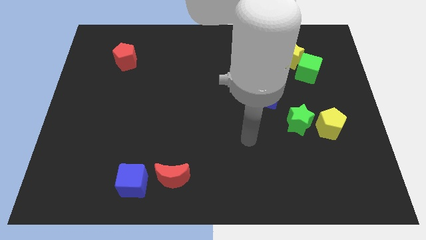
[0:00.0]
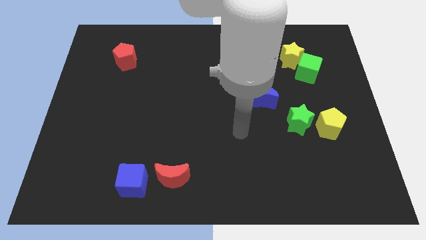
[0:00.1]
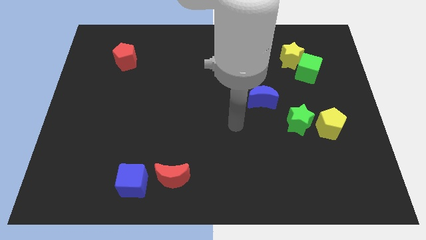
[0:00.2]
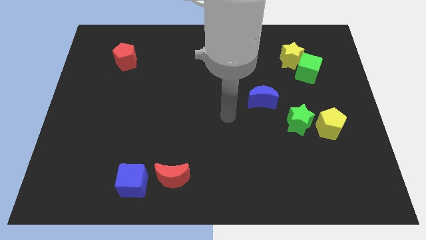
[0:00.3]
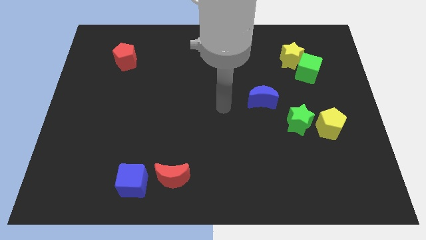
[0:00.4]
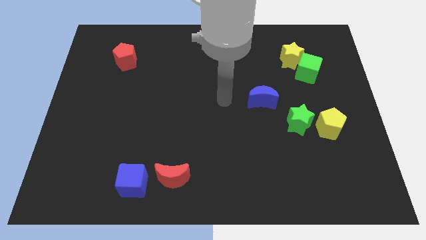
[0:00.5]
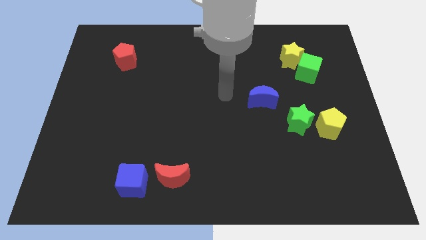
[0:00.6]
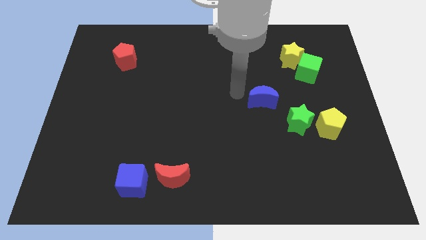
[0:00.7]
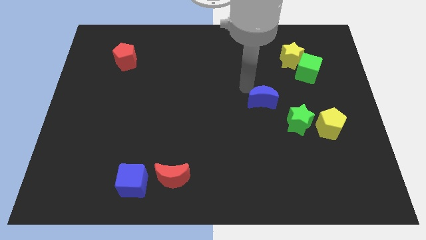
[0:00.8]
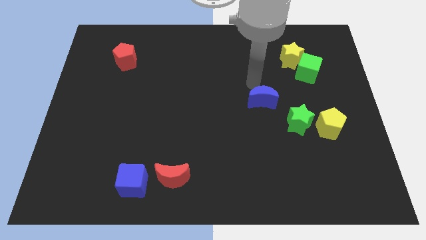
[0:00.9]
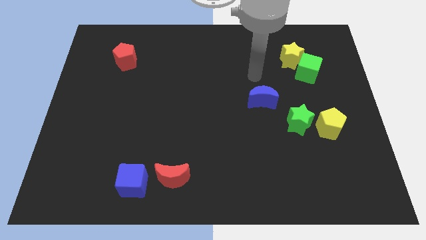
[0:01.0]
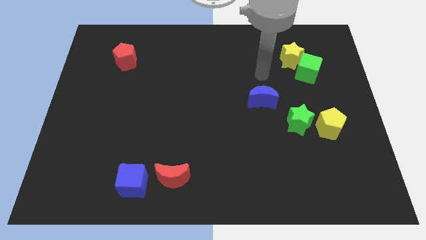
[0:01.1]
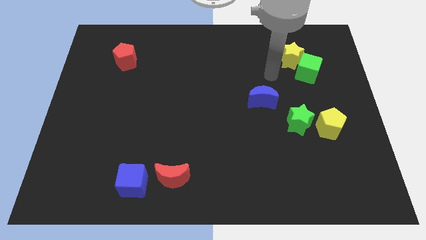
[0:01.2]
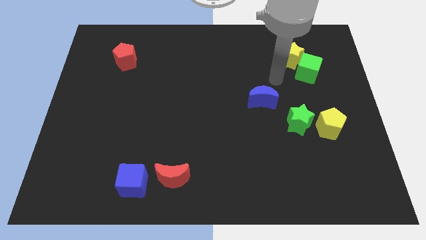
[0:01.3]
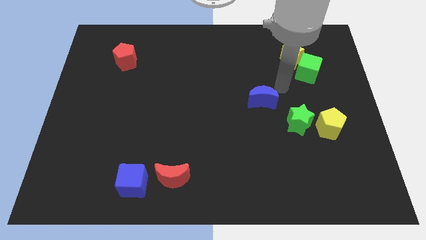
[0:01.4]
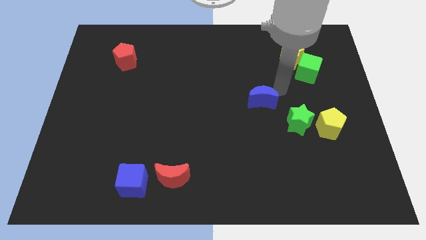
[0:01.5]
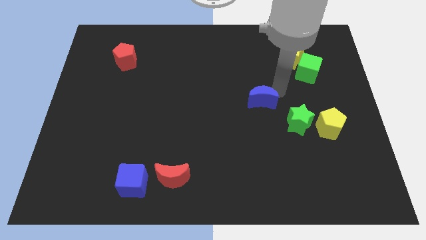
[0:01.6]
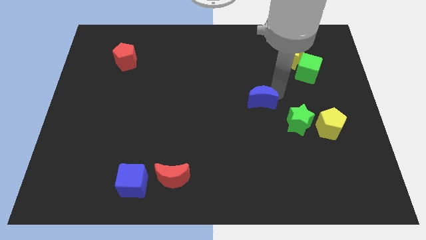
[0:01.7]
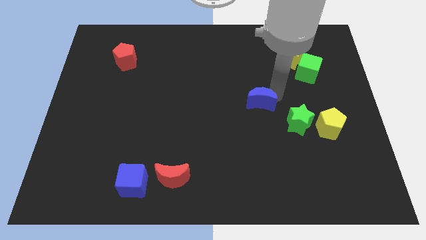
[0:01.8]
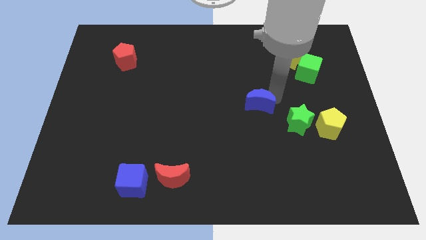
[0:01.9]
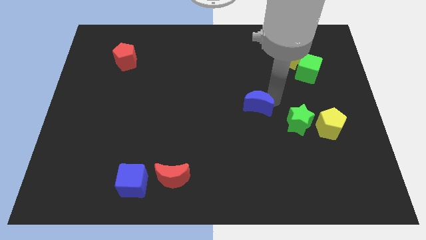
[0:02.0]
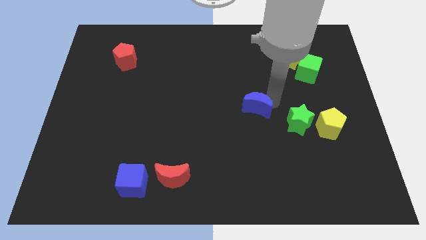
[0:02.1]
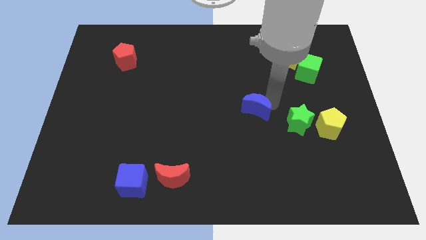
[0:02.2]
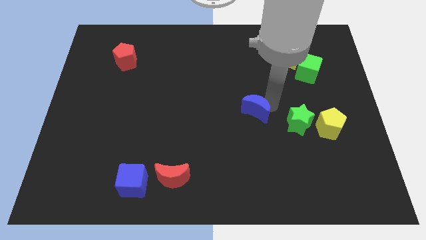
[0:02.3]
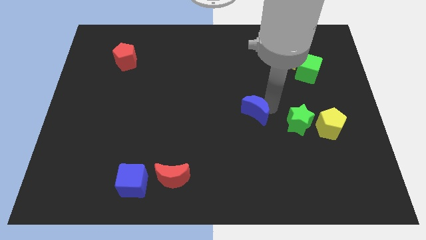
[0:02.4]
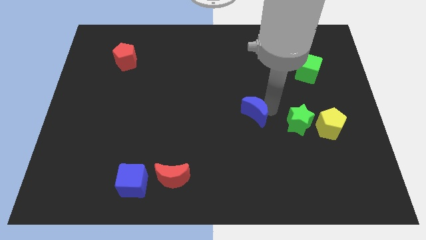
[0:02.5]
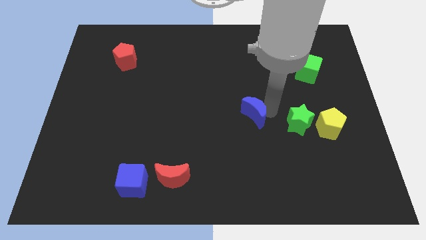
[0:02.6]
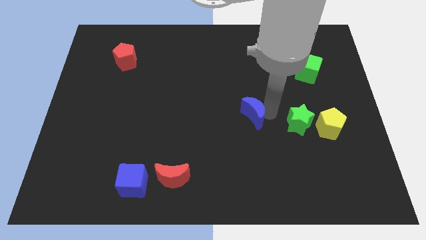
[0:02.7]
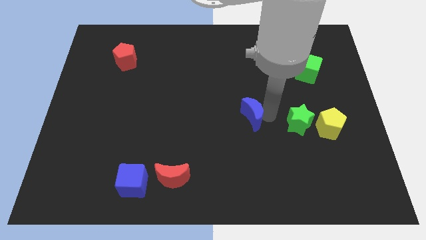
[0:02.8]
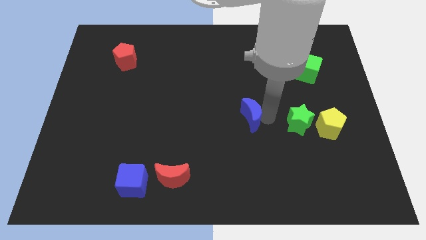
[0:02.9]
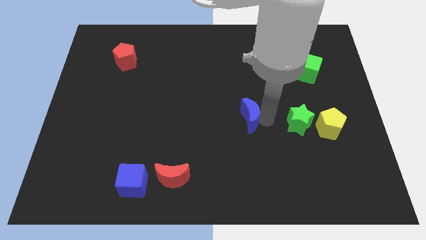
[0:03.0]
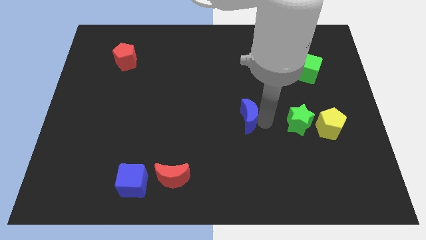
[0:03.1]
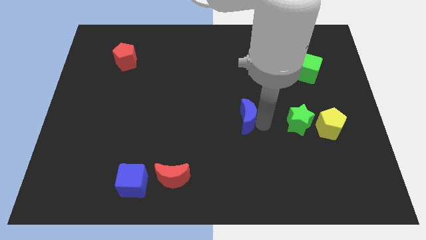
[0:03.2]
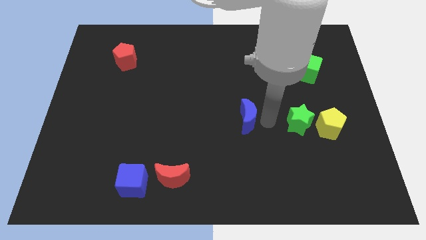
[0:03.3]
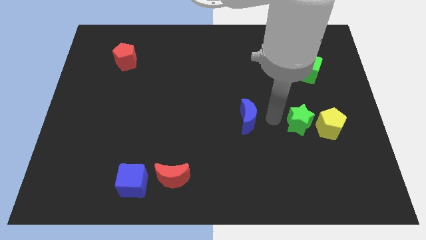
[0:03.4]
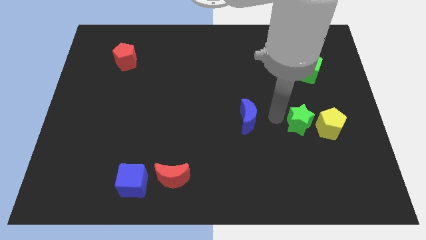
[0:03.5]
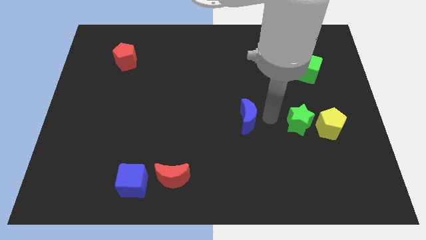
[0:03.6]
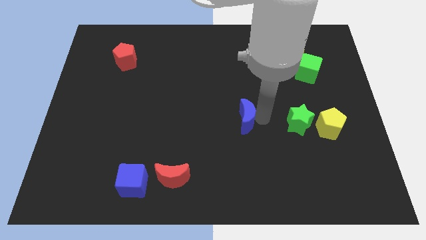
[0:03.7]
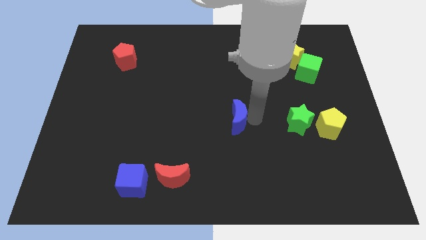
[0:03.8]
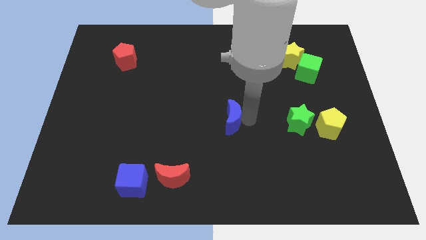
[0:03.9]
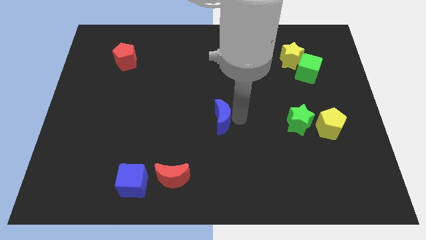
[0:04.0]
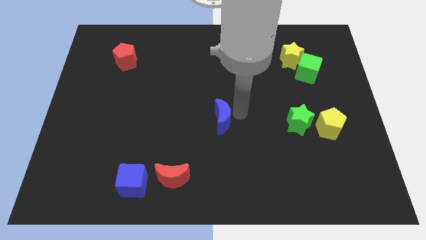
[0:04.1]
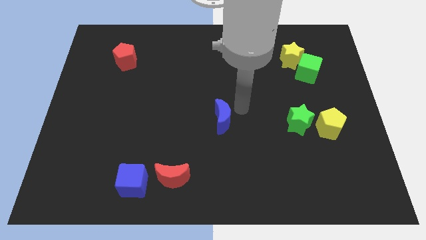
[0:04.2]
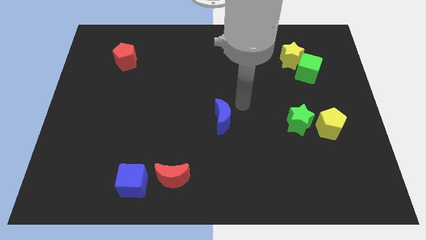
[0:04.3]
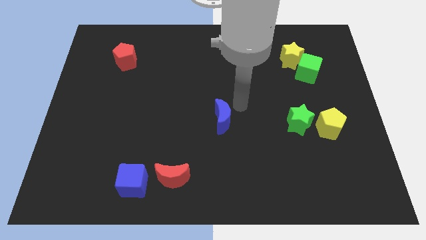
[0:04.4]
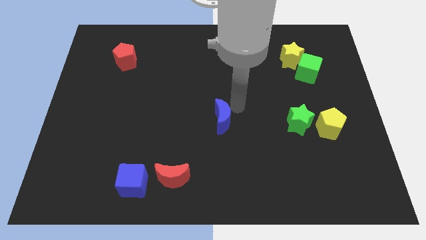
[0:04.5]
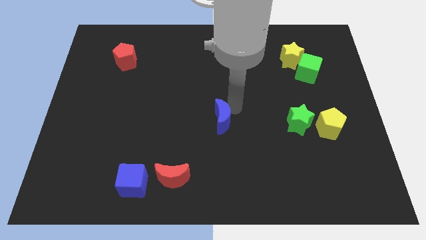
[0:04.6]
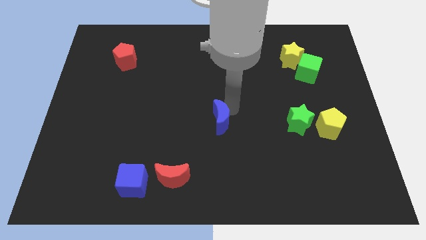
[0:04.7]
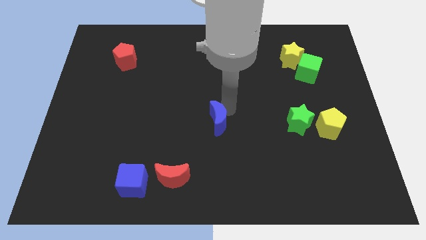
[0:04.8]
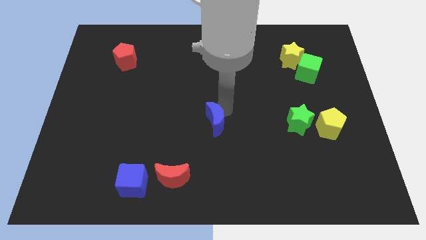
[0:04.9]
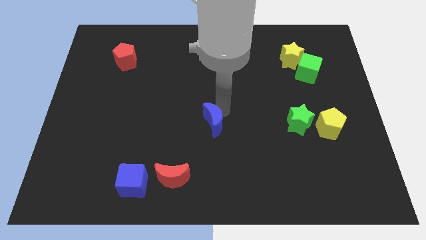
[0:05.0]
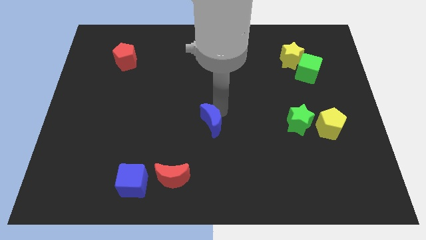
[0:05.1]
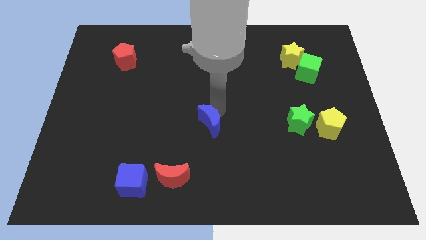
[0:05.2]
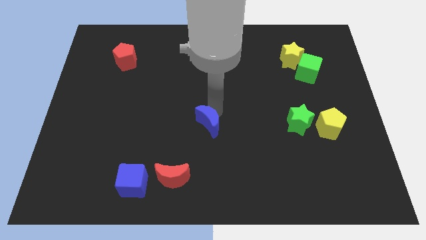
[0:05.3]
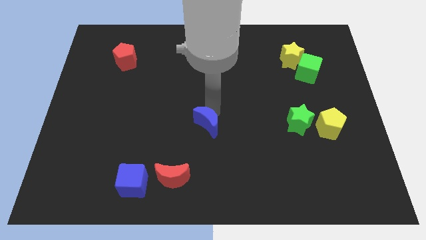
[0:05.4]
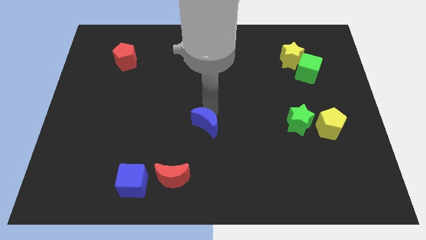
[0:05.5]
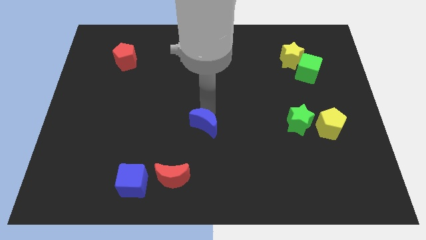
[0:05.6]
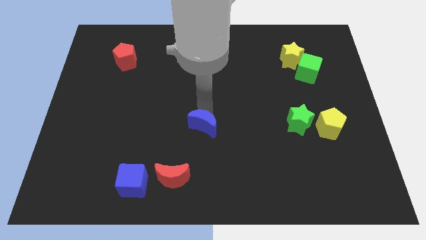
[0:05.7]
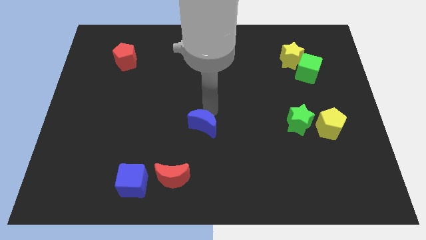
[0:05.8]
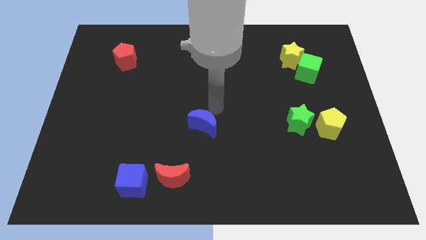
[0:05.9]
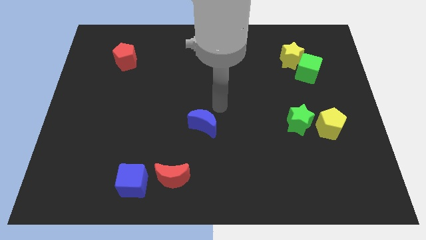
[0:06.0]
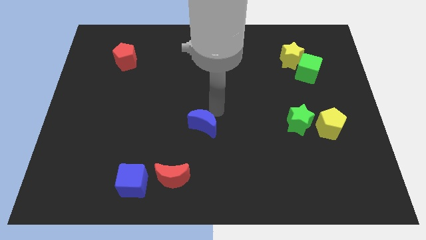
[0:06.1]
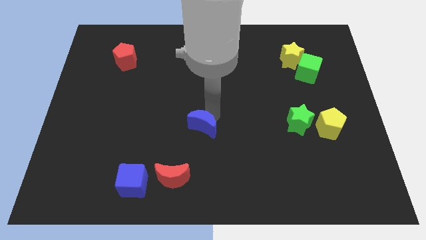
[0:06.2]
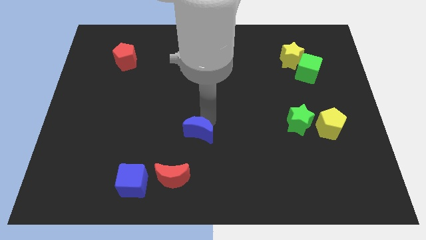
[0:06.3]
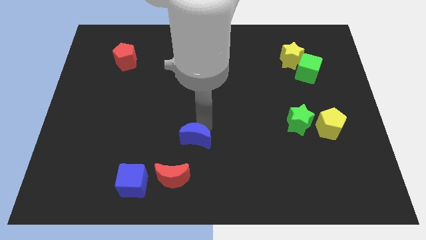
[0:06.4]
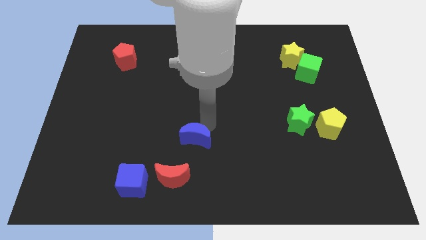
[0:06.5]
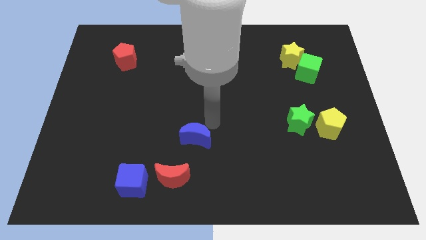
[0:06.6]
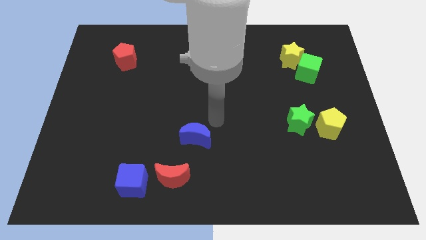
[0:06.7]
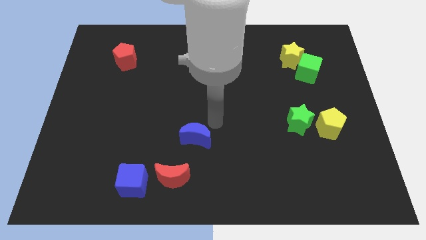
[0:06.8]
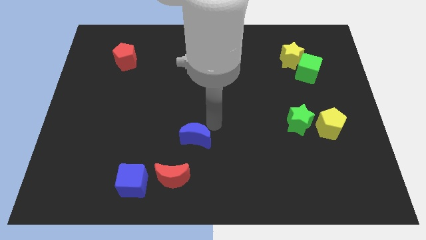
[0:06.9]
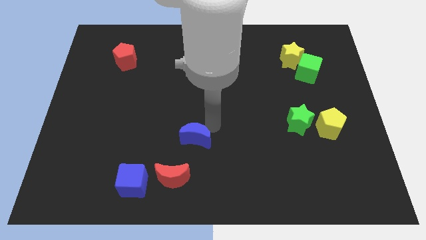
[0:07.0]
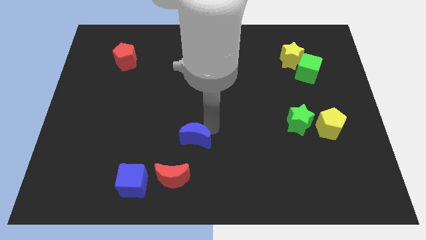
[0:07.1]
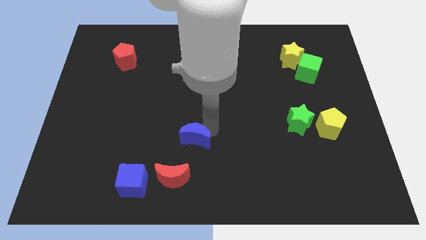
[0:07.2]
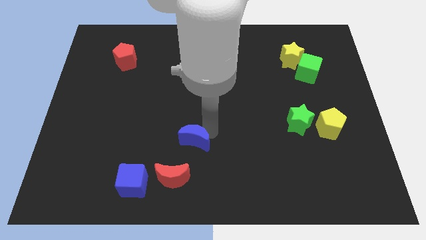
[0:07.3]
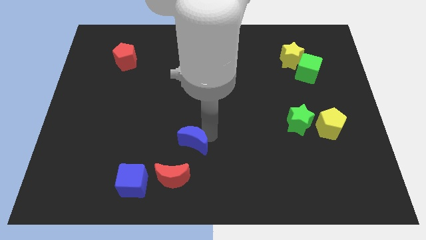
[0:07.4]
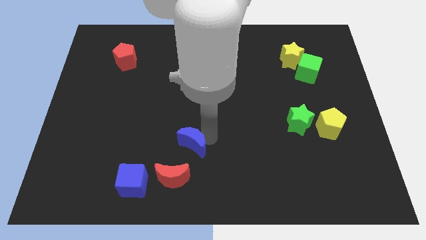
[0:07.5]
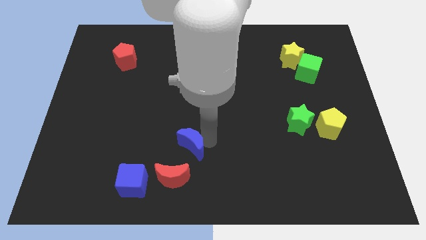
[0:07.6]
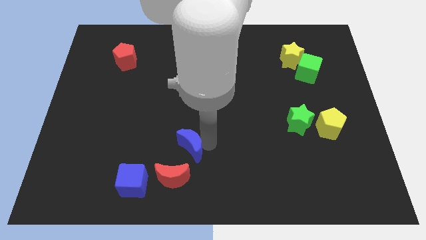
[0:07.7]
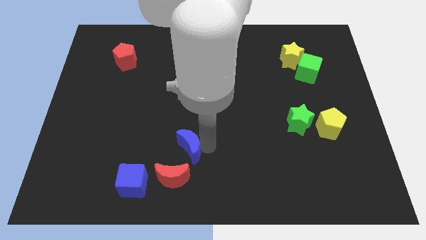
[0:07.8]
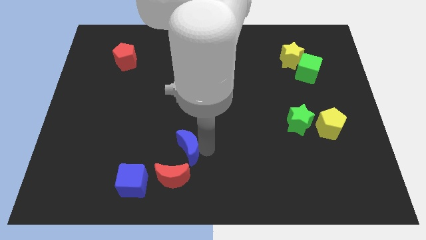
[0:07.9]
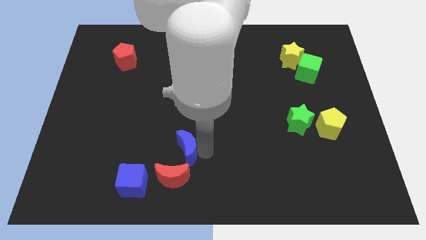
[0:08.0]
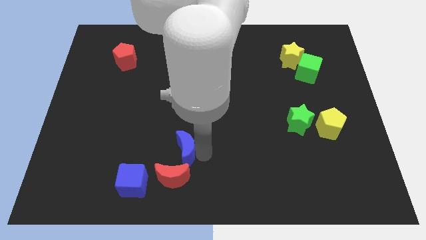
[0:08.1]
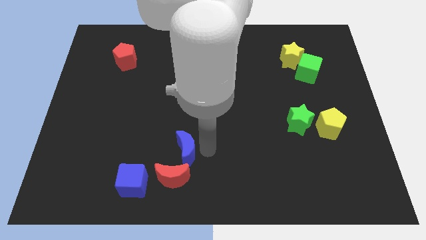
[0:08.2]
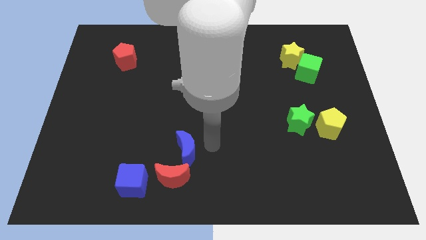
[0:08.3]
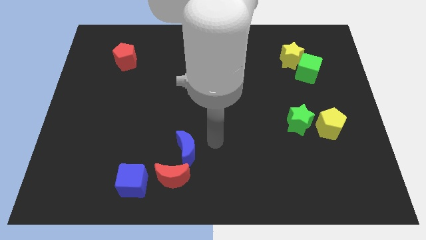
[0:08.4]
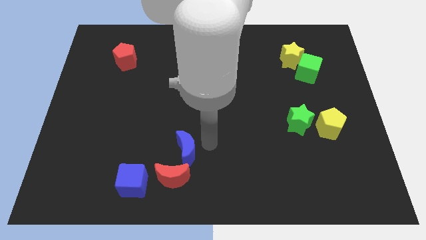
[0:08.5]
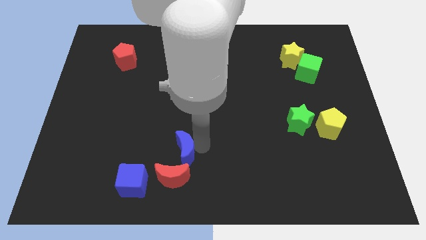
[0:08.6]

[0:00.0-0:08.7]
move the blue moon to the top right of the blue cube
